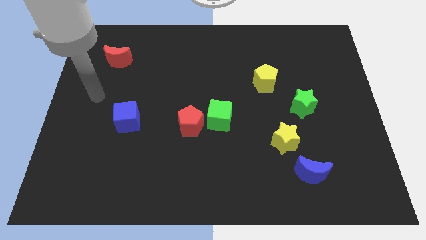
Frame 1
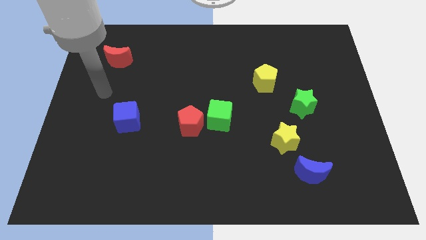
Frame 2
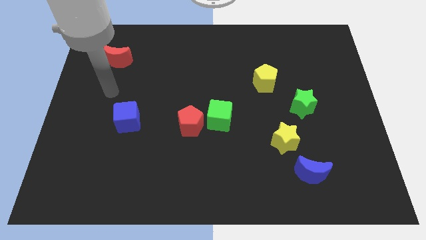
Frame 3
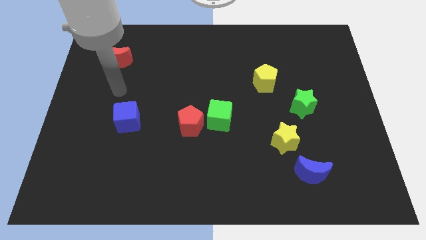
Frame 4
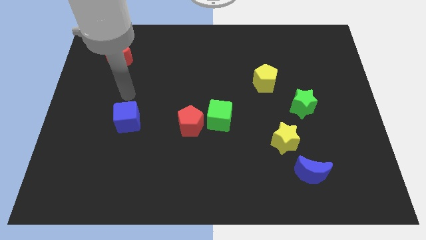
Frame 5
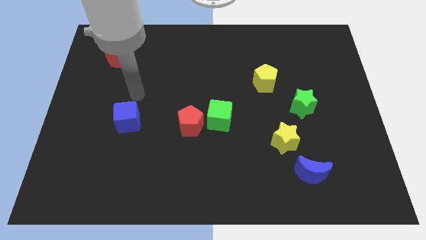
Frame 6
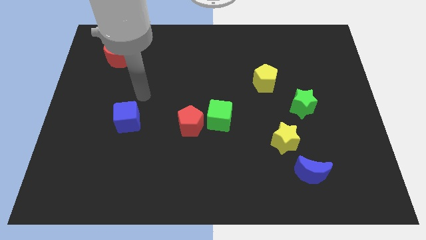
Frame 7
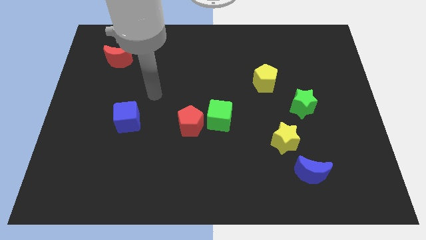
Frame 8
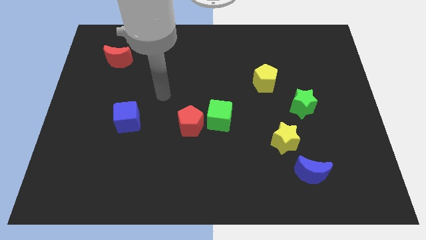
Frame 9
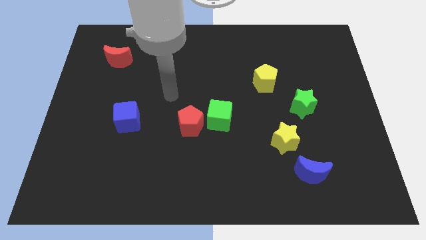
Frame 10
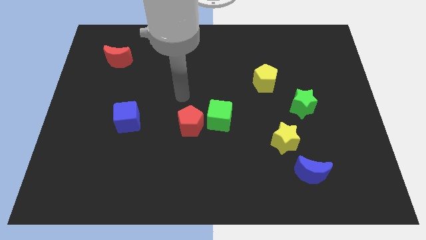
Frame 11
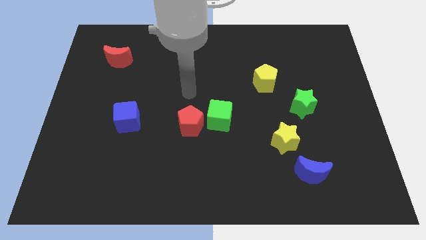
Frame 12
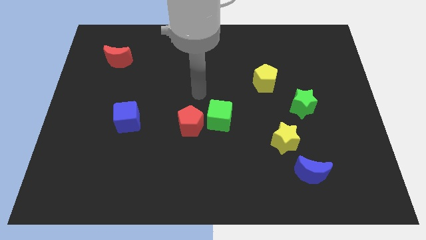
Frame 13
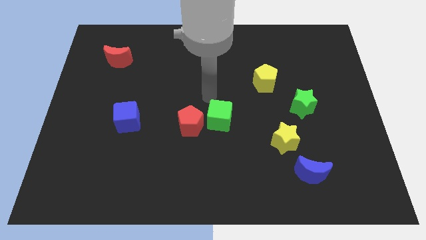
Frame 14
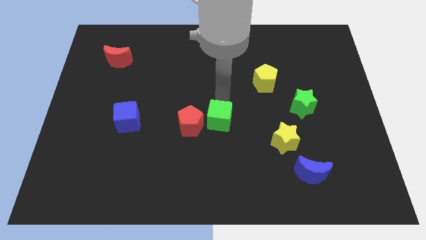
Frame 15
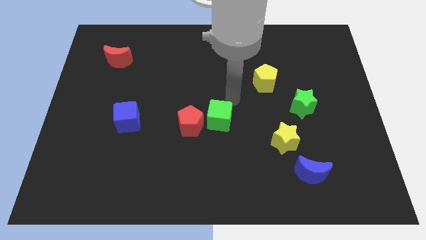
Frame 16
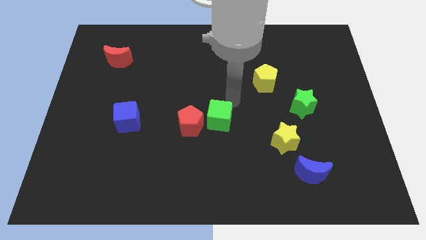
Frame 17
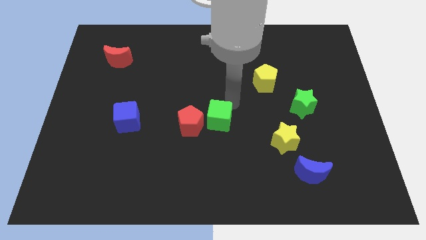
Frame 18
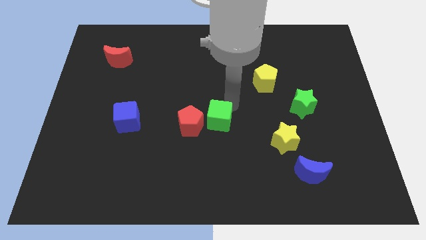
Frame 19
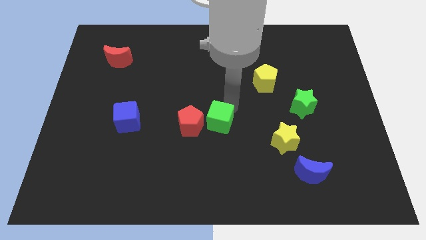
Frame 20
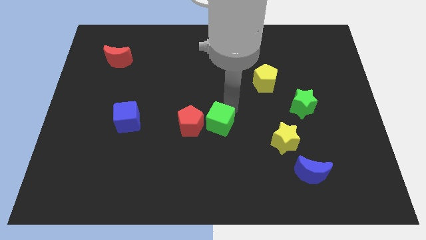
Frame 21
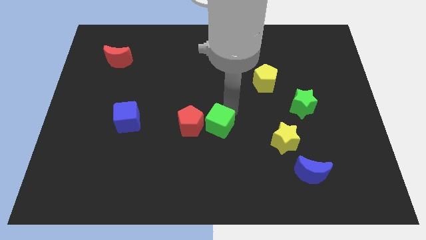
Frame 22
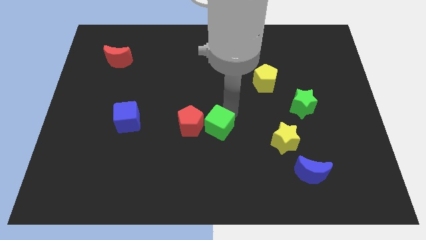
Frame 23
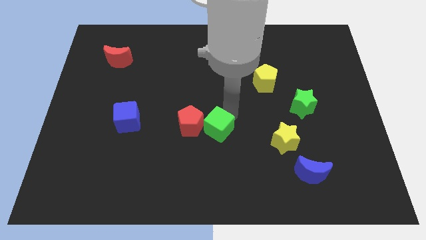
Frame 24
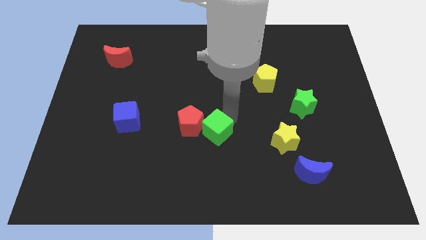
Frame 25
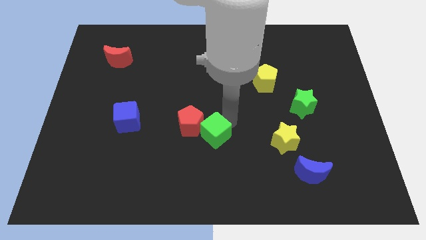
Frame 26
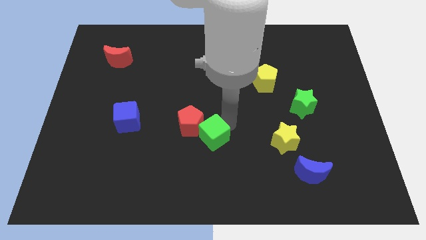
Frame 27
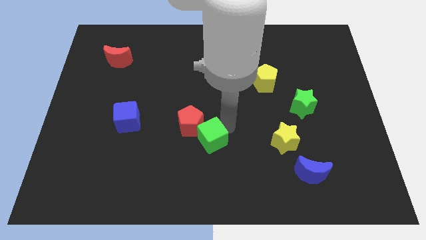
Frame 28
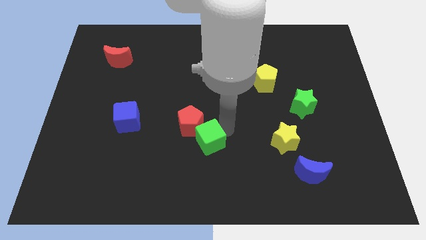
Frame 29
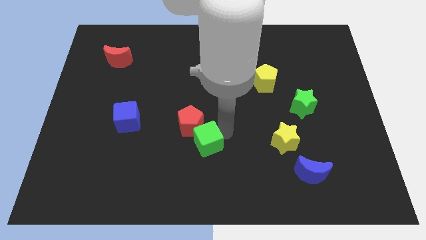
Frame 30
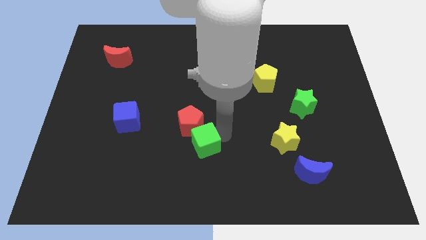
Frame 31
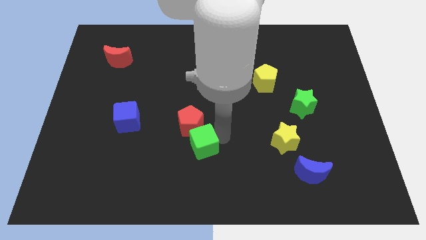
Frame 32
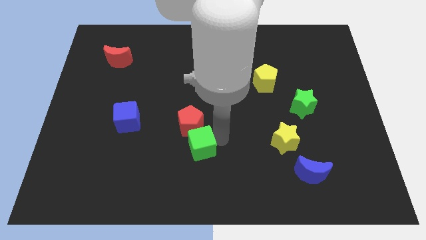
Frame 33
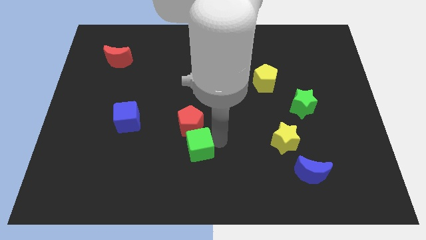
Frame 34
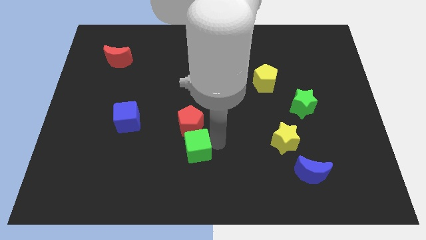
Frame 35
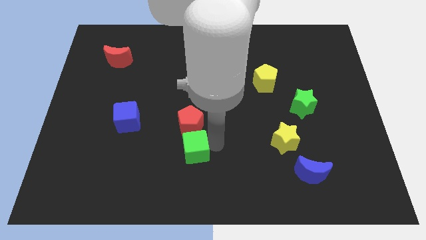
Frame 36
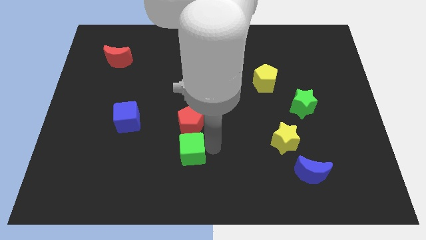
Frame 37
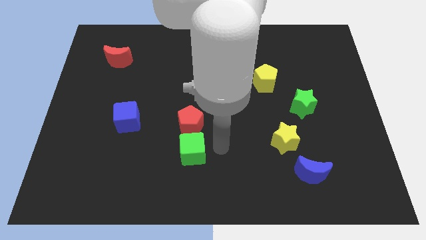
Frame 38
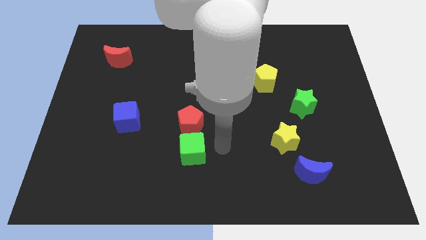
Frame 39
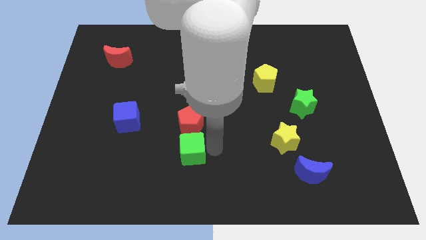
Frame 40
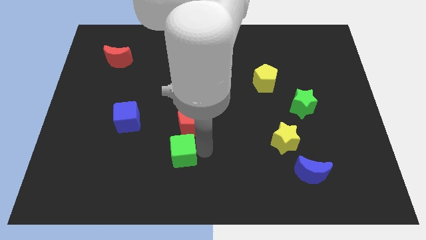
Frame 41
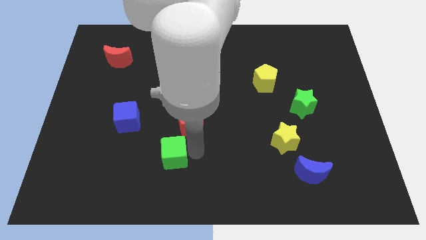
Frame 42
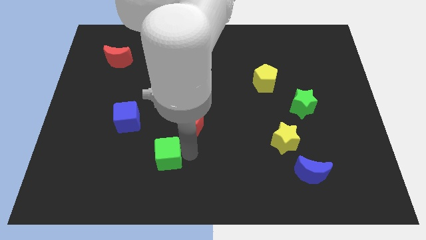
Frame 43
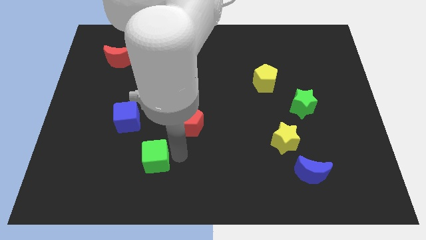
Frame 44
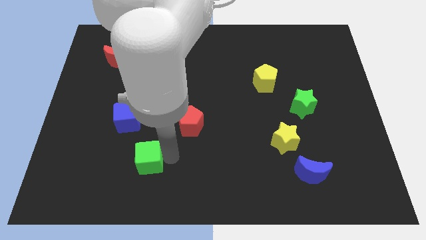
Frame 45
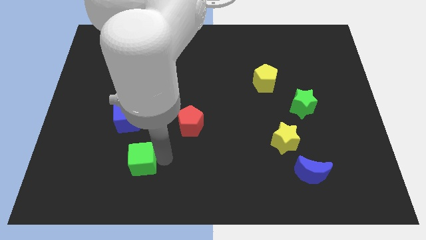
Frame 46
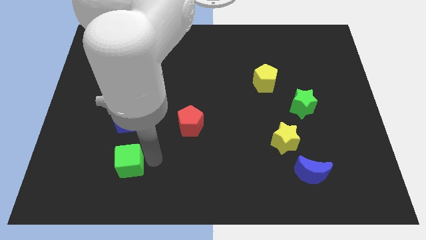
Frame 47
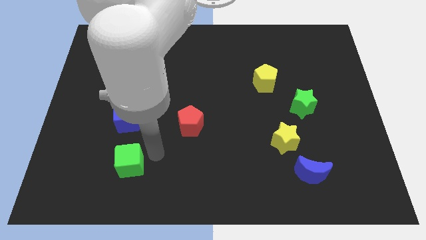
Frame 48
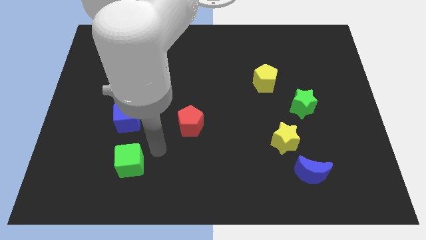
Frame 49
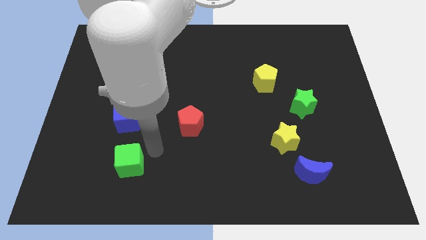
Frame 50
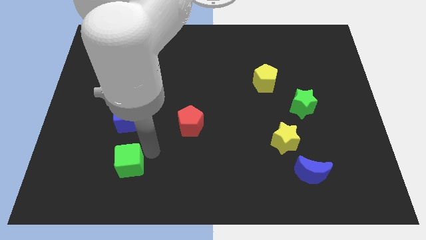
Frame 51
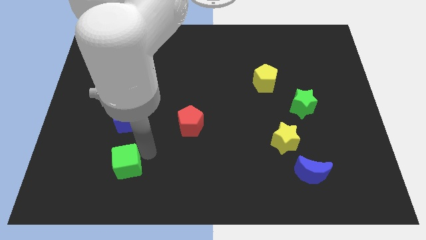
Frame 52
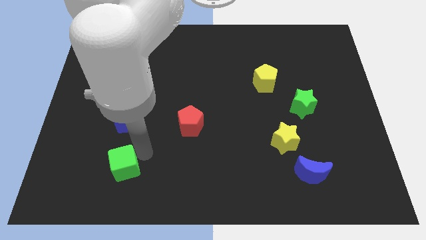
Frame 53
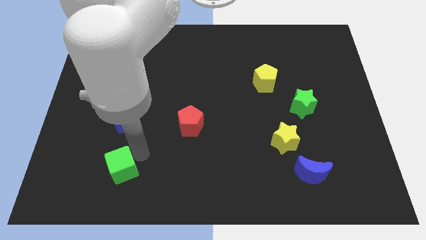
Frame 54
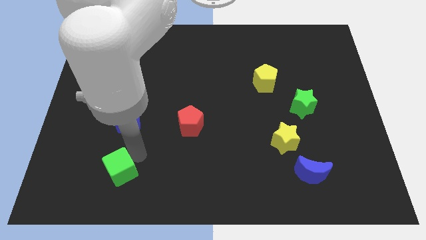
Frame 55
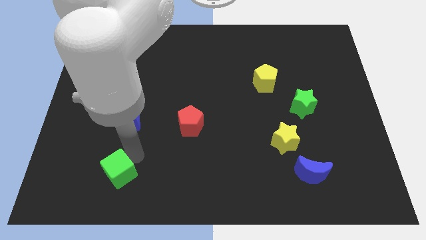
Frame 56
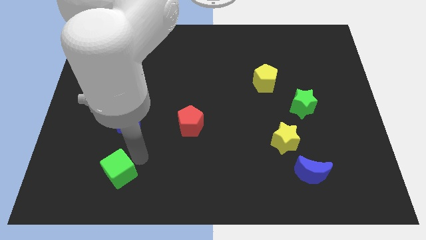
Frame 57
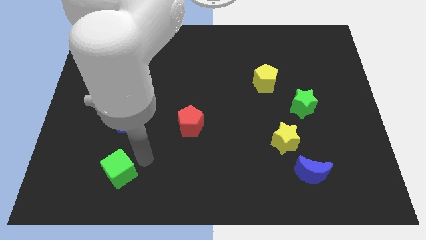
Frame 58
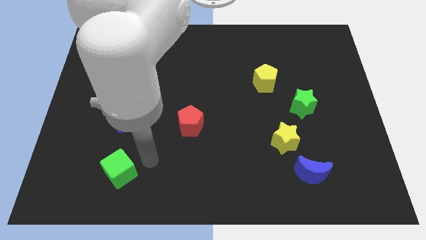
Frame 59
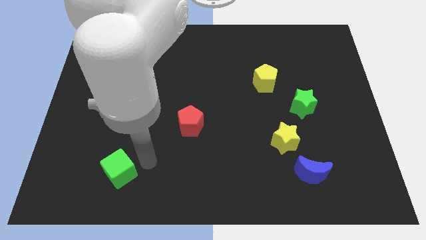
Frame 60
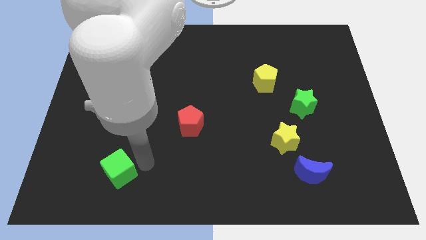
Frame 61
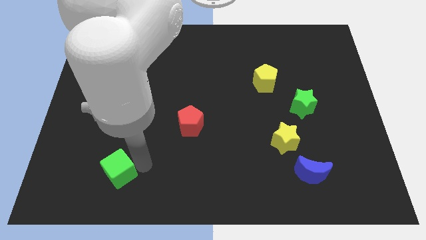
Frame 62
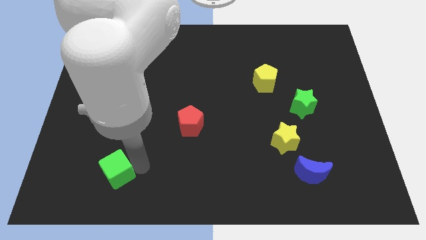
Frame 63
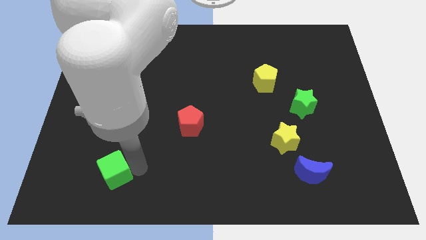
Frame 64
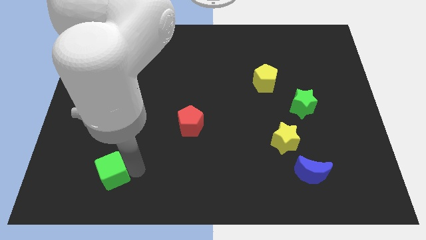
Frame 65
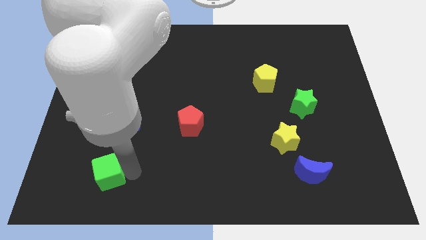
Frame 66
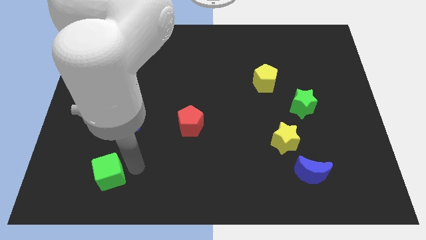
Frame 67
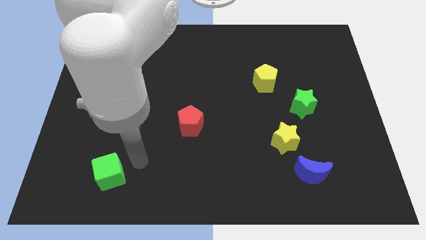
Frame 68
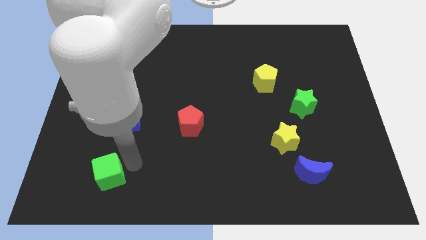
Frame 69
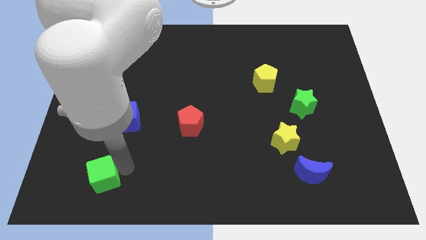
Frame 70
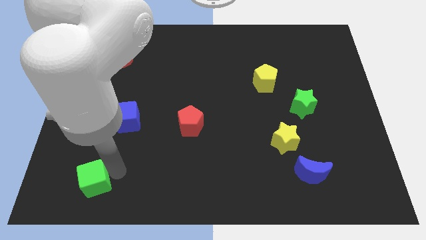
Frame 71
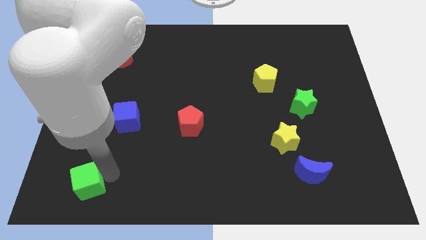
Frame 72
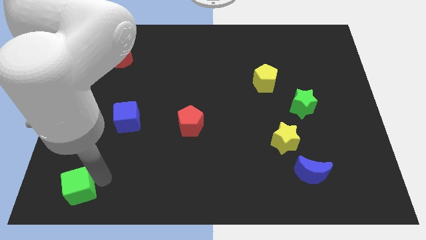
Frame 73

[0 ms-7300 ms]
move the green cube to the lower left corner
